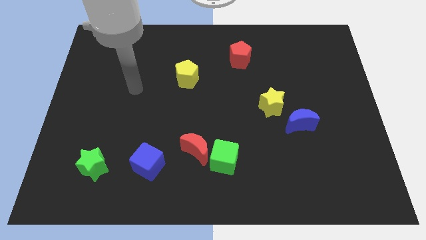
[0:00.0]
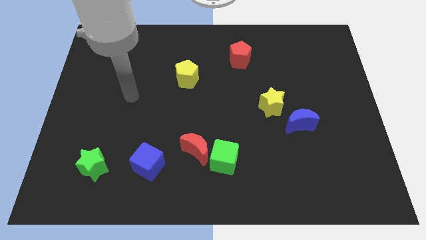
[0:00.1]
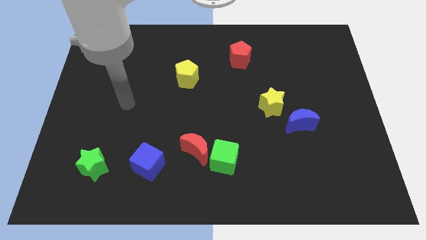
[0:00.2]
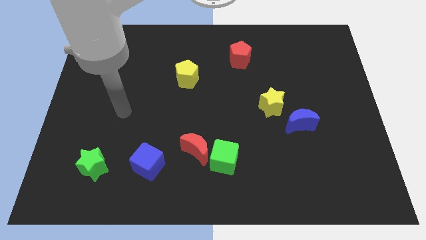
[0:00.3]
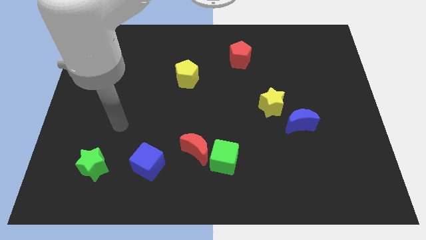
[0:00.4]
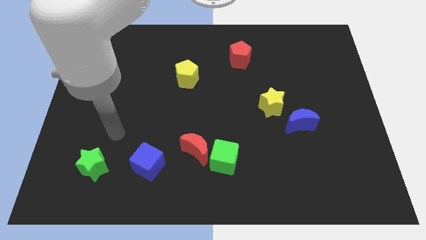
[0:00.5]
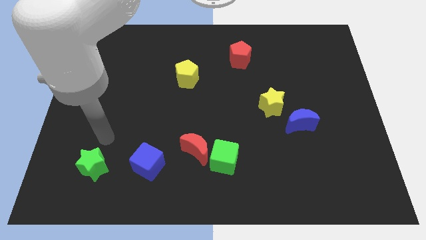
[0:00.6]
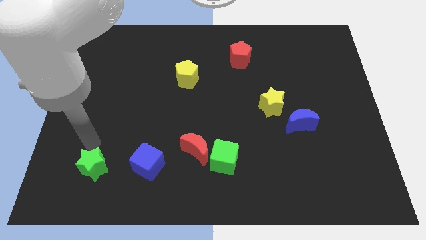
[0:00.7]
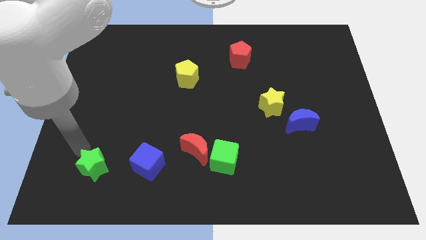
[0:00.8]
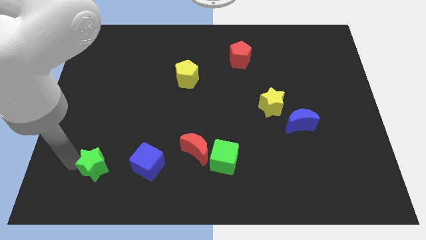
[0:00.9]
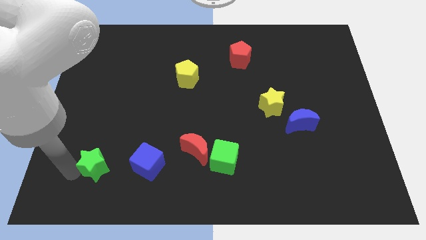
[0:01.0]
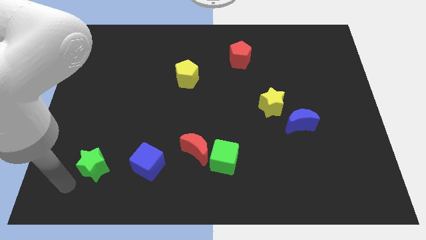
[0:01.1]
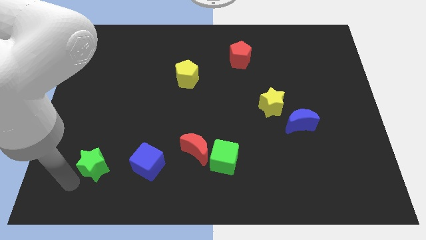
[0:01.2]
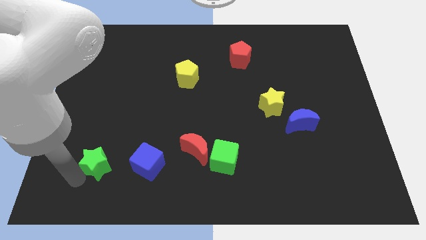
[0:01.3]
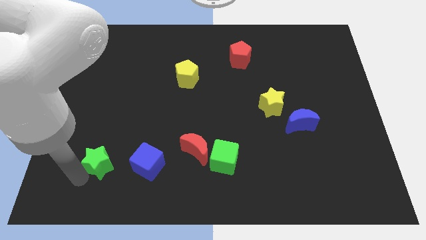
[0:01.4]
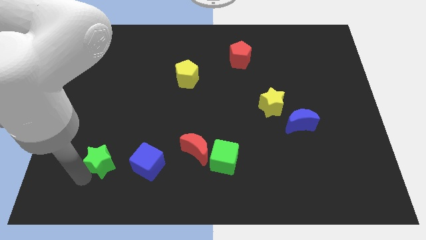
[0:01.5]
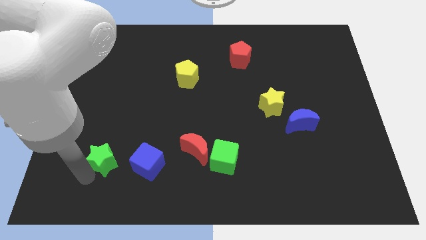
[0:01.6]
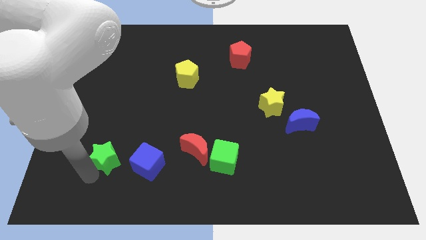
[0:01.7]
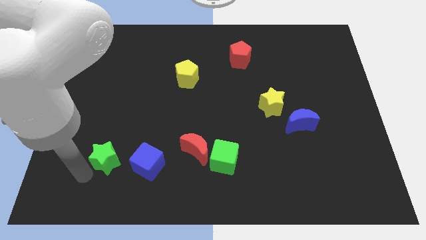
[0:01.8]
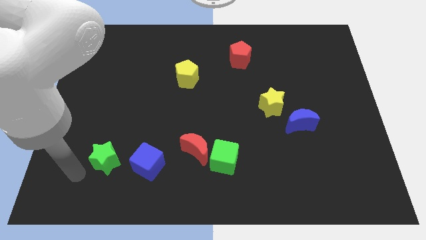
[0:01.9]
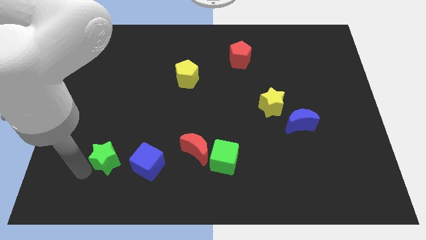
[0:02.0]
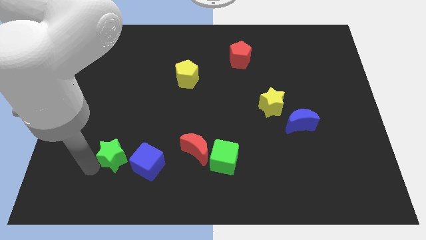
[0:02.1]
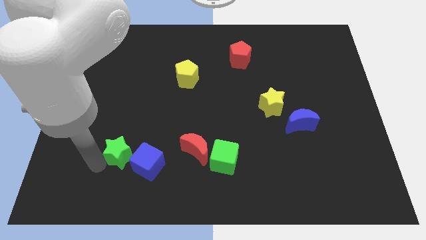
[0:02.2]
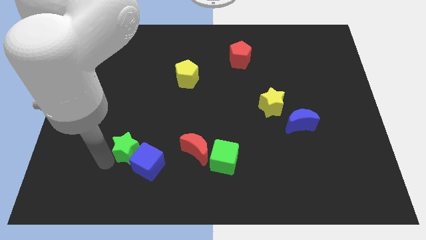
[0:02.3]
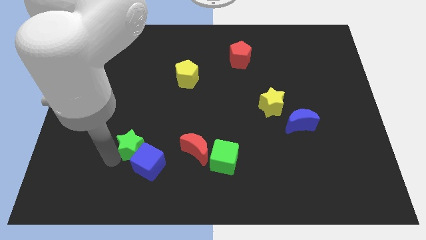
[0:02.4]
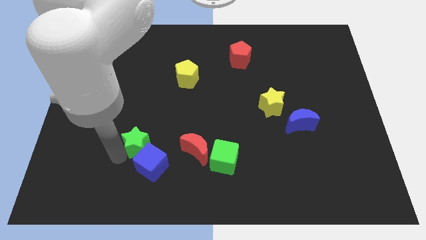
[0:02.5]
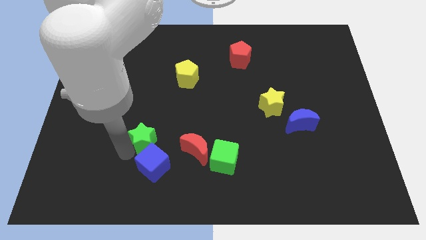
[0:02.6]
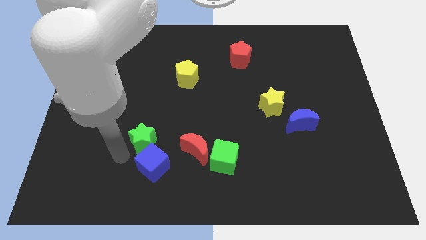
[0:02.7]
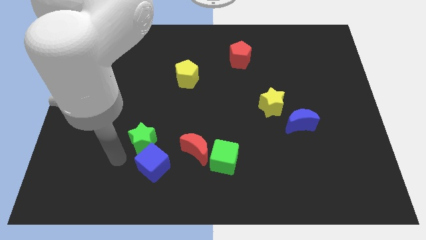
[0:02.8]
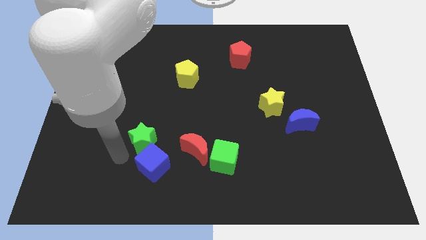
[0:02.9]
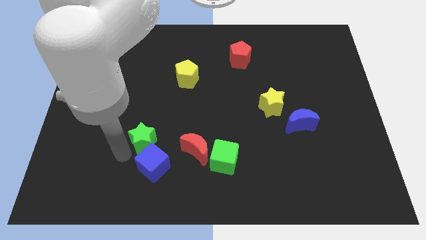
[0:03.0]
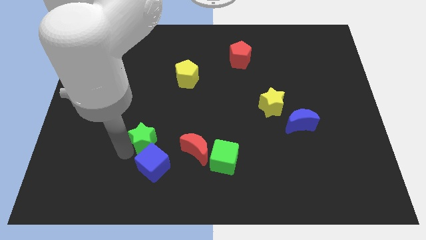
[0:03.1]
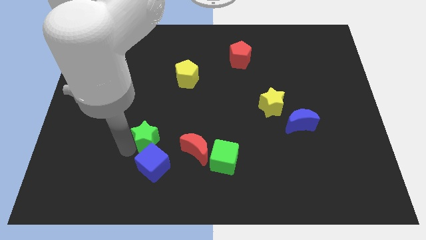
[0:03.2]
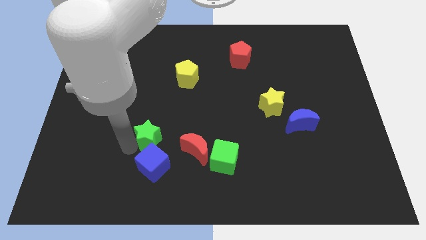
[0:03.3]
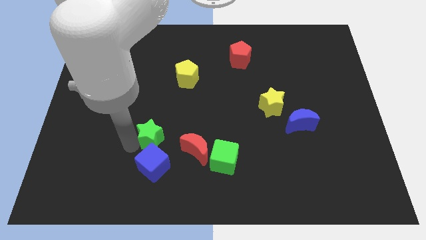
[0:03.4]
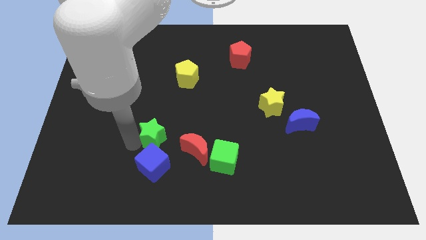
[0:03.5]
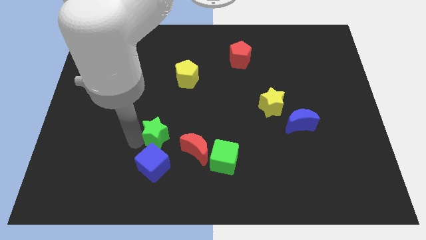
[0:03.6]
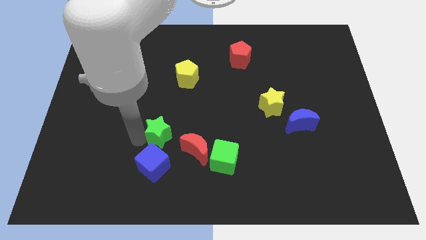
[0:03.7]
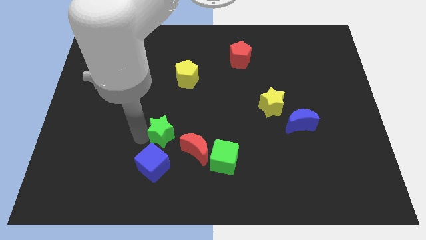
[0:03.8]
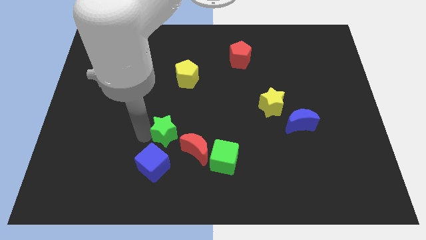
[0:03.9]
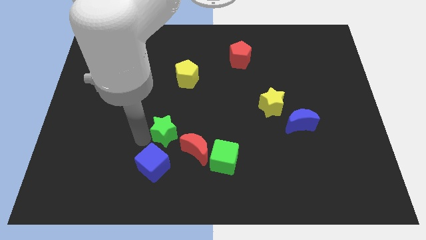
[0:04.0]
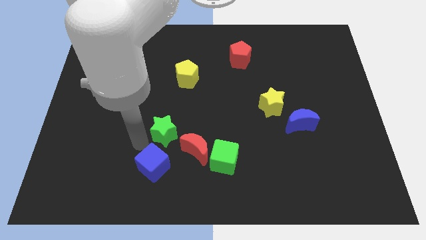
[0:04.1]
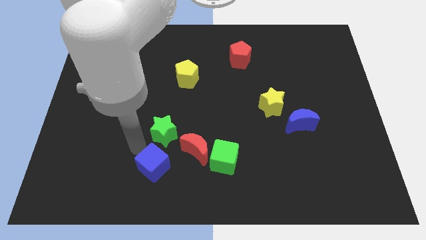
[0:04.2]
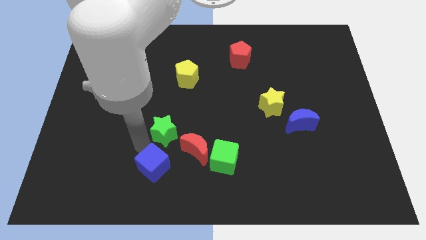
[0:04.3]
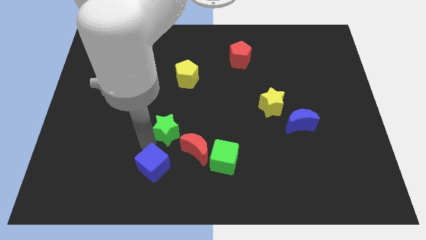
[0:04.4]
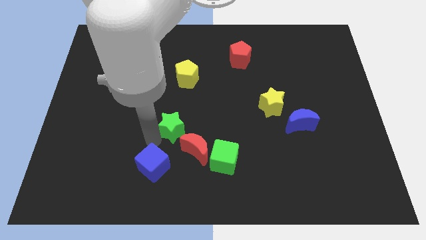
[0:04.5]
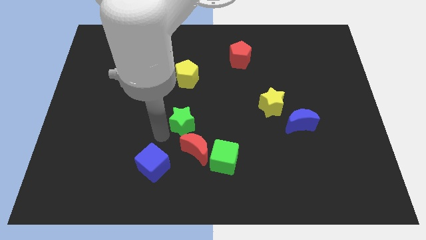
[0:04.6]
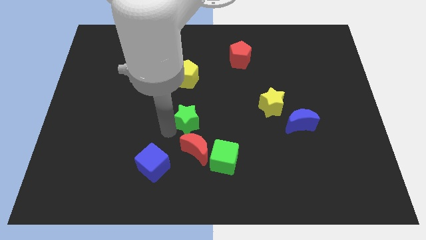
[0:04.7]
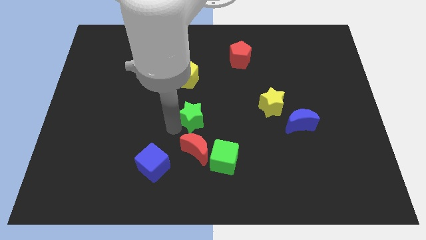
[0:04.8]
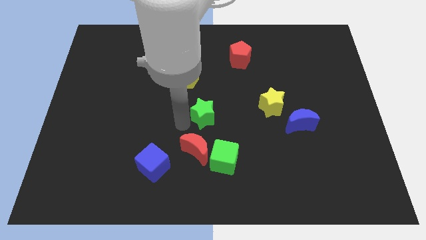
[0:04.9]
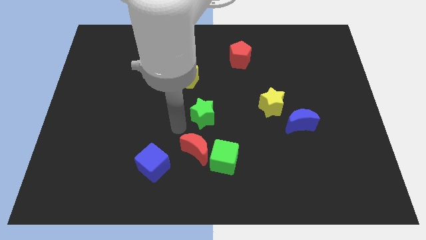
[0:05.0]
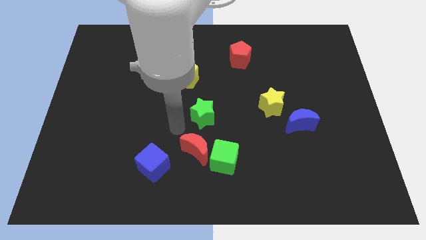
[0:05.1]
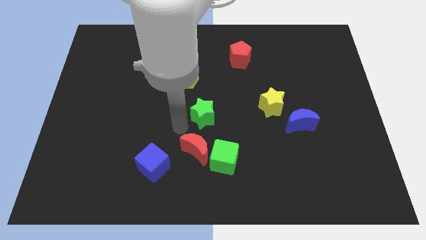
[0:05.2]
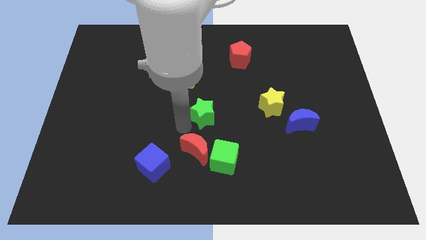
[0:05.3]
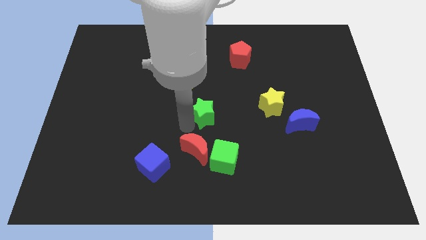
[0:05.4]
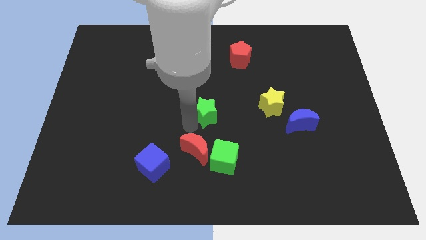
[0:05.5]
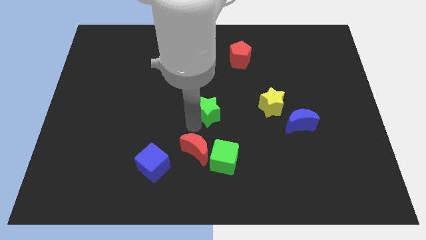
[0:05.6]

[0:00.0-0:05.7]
move the green star to the left of the yellow star

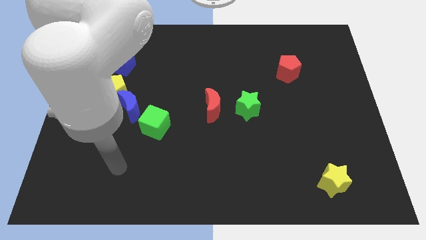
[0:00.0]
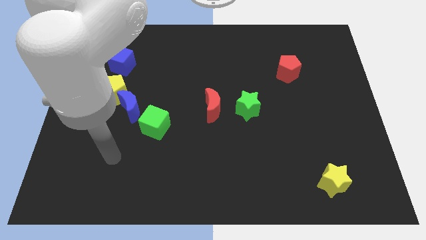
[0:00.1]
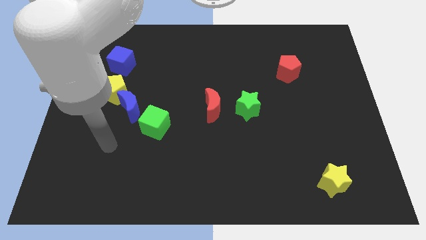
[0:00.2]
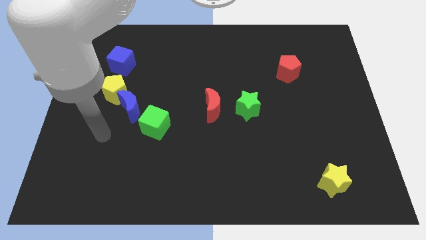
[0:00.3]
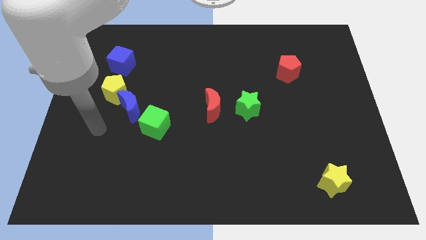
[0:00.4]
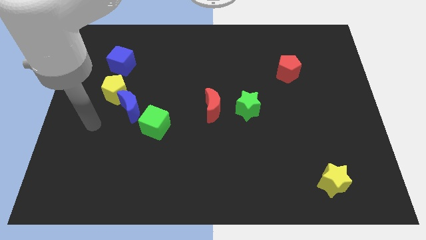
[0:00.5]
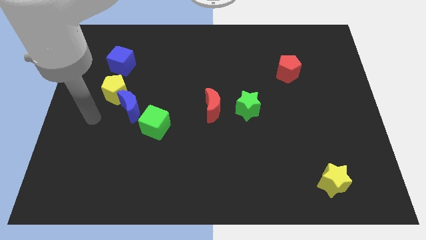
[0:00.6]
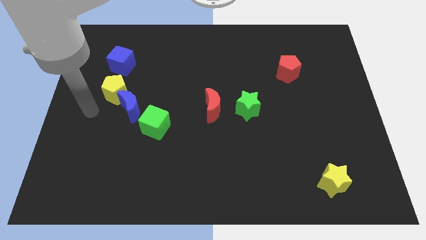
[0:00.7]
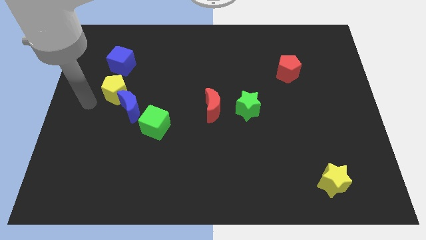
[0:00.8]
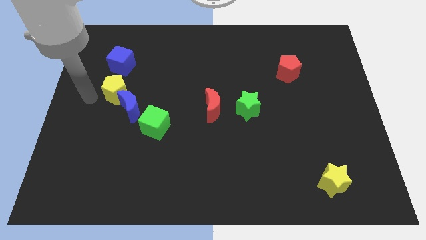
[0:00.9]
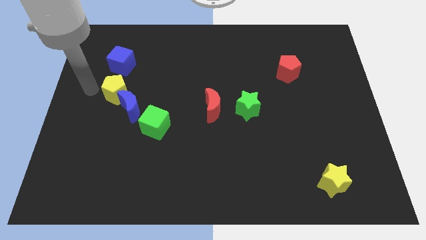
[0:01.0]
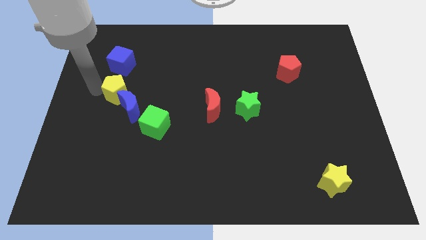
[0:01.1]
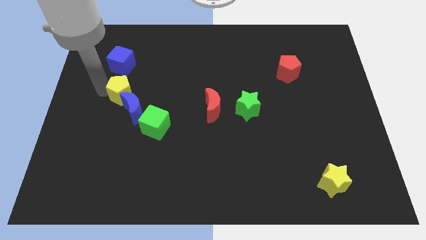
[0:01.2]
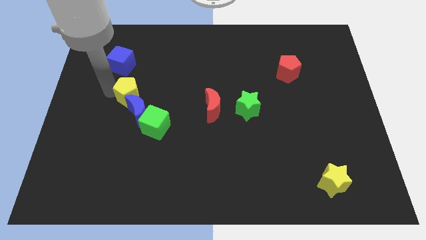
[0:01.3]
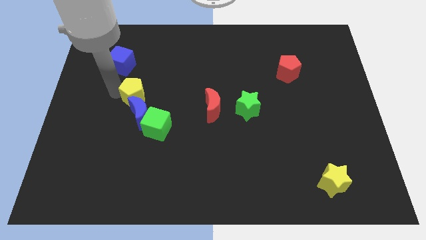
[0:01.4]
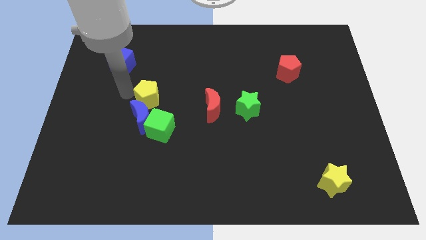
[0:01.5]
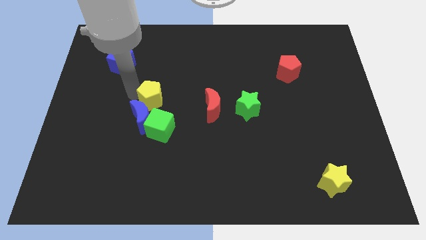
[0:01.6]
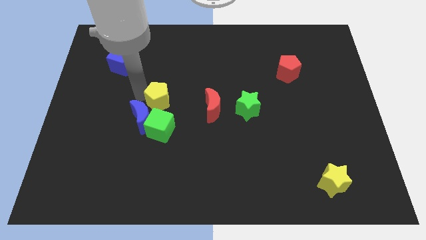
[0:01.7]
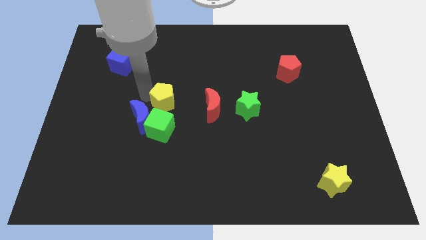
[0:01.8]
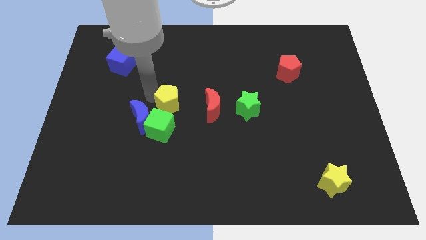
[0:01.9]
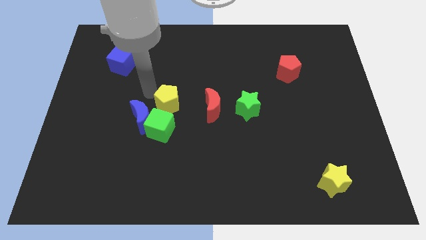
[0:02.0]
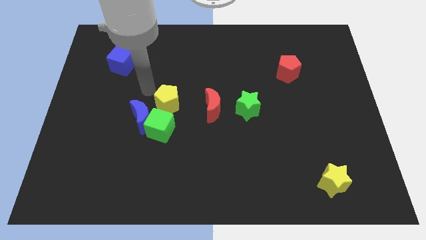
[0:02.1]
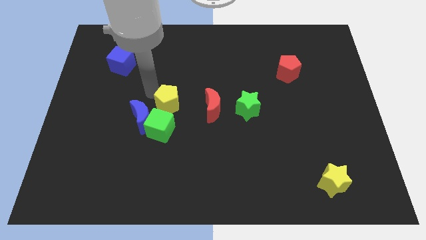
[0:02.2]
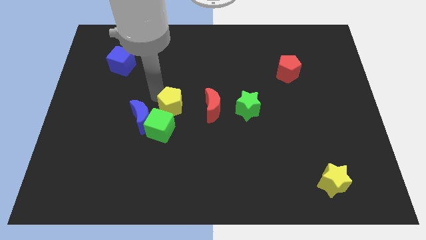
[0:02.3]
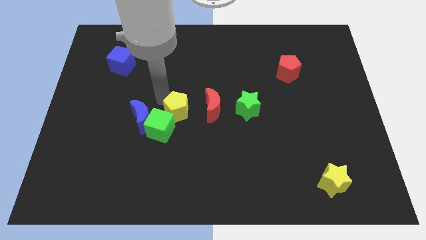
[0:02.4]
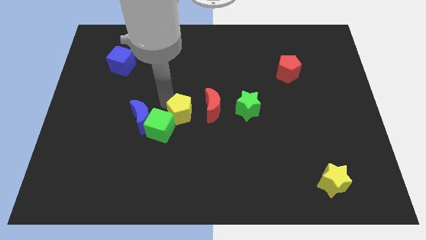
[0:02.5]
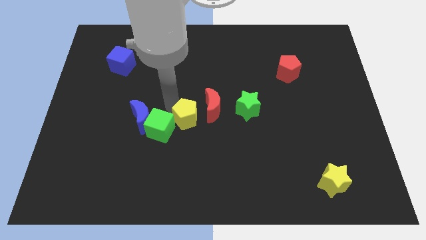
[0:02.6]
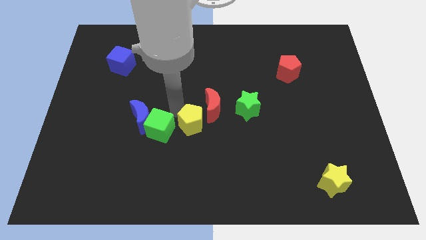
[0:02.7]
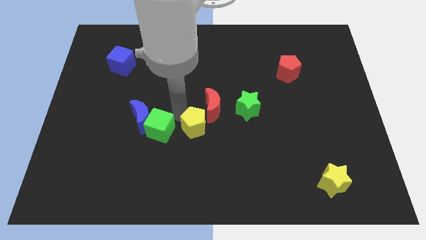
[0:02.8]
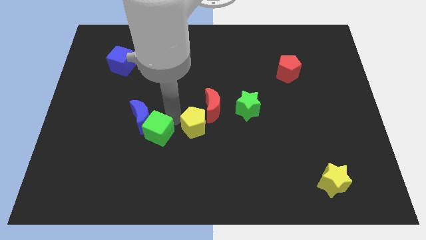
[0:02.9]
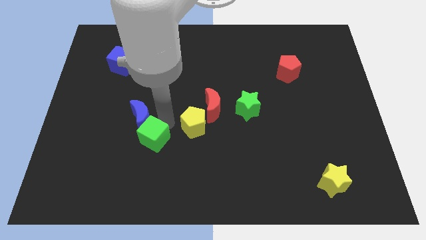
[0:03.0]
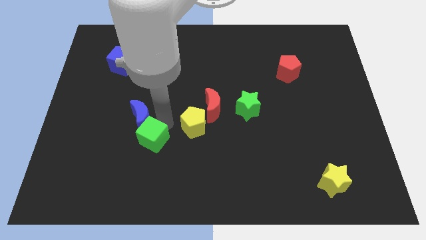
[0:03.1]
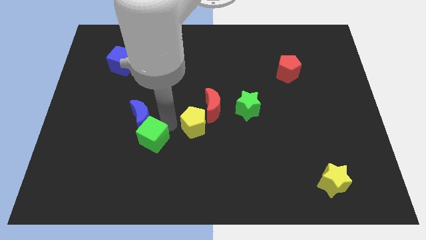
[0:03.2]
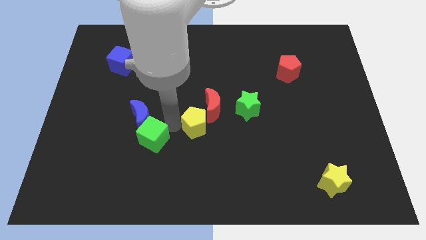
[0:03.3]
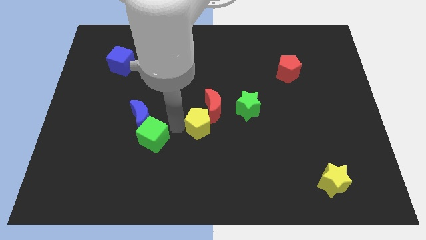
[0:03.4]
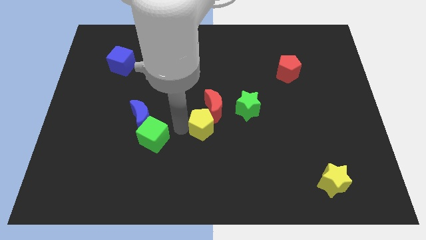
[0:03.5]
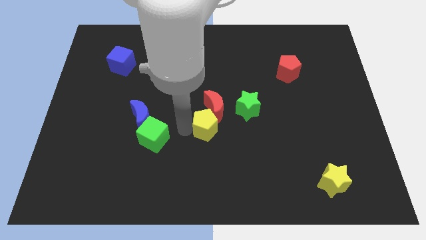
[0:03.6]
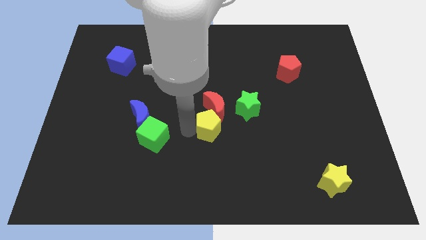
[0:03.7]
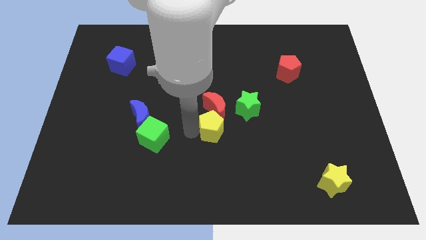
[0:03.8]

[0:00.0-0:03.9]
slide the yellow pentagon to the bottom right side of the red moon
